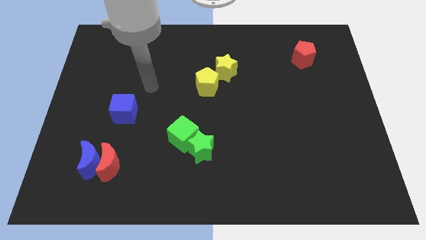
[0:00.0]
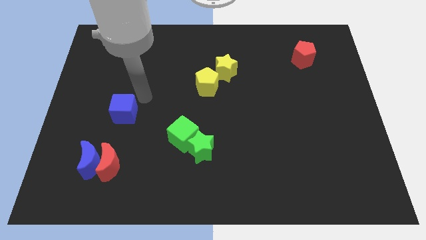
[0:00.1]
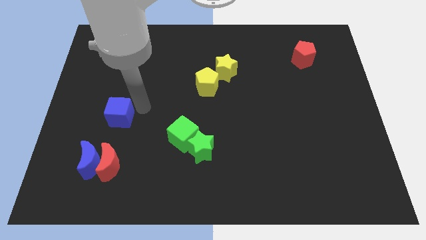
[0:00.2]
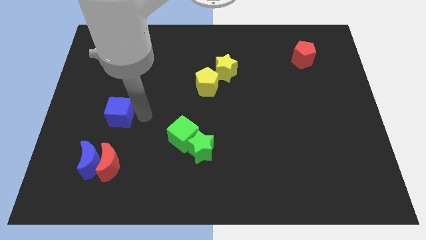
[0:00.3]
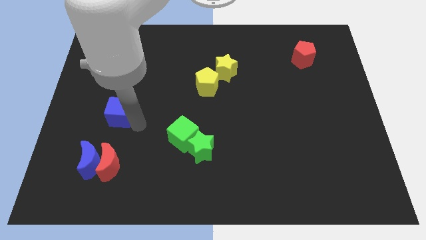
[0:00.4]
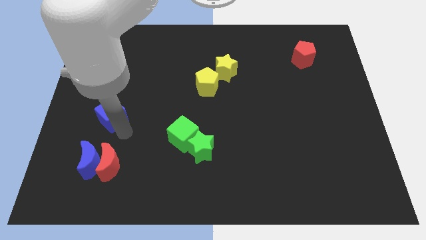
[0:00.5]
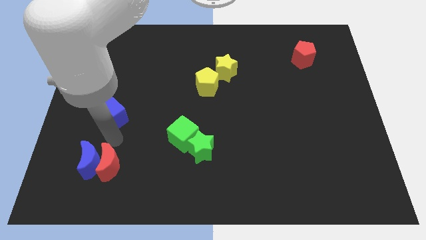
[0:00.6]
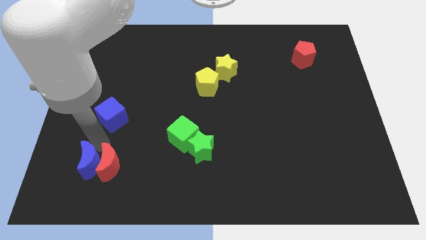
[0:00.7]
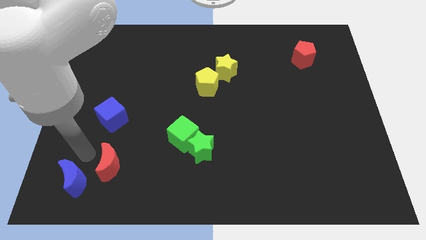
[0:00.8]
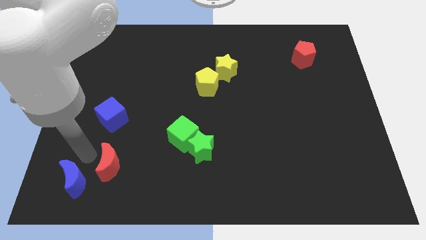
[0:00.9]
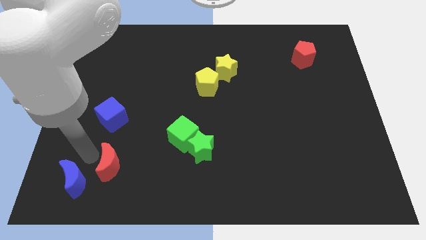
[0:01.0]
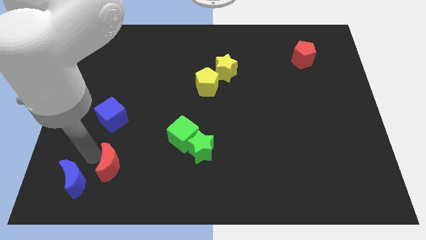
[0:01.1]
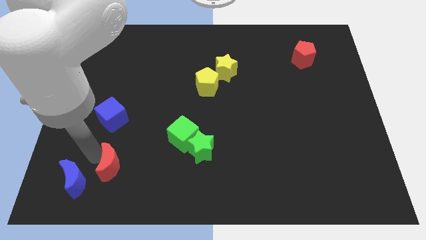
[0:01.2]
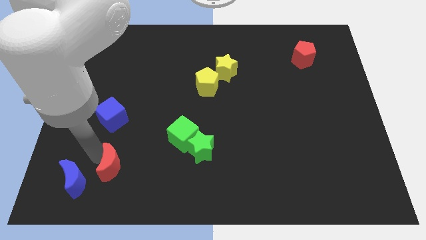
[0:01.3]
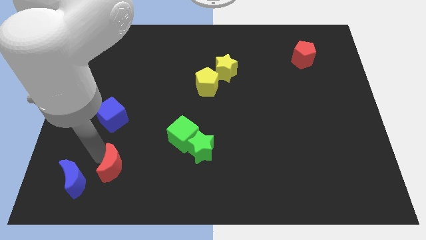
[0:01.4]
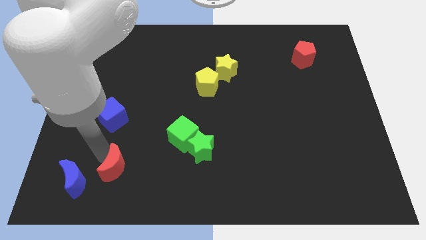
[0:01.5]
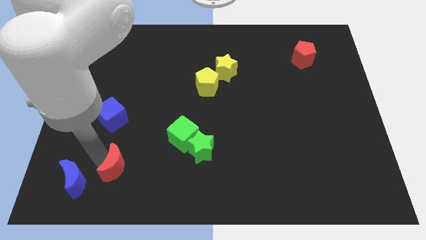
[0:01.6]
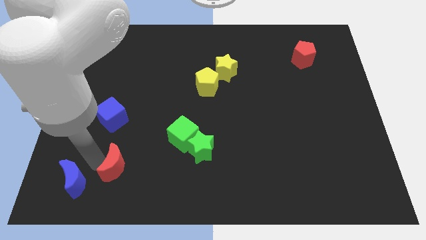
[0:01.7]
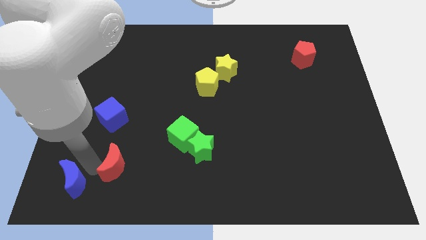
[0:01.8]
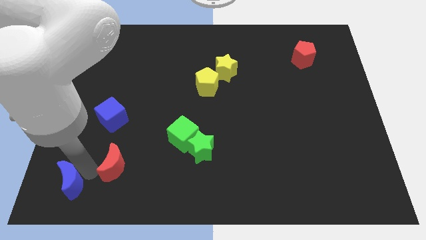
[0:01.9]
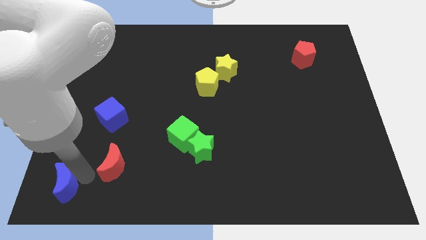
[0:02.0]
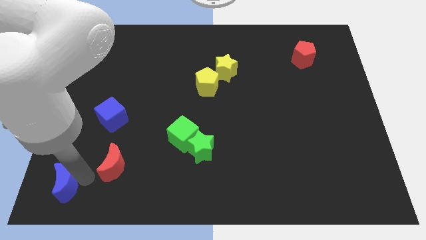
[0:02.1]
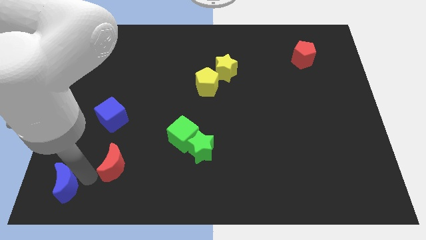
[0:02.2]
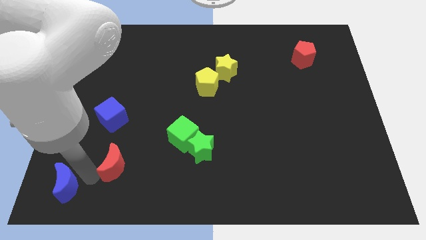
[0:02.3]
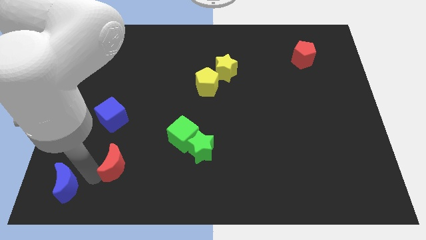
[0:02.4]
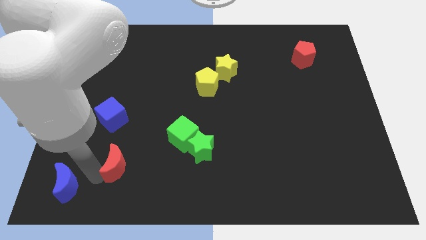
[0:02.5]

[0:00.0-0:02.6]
pull the red moon apart from the blue moon

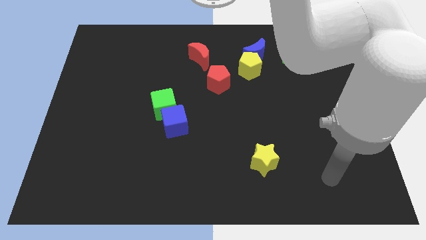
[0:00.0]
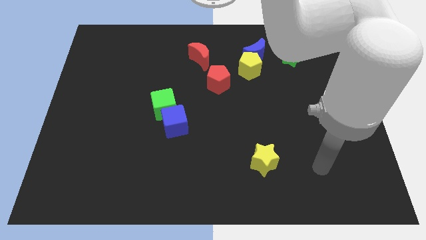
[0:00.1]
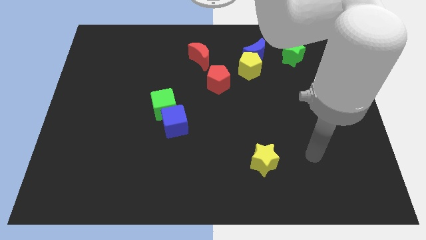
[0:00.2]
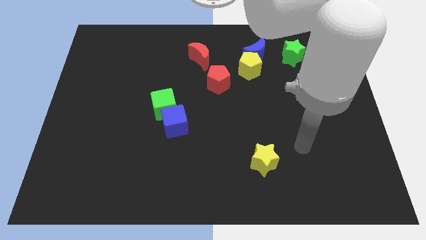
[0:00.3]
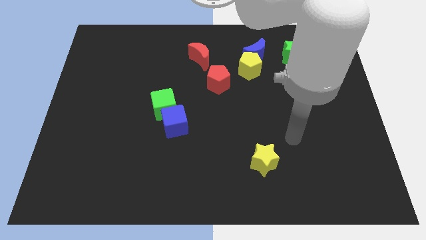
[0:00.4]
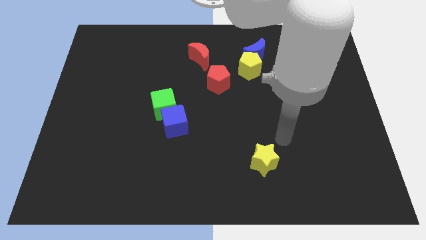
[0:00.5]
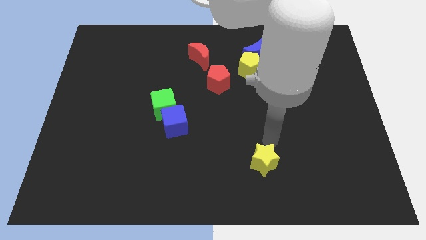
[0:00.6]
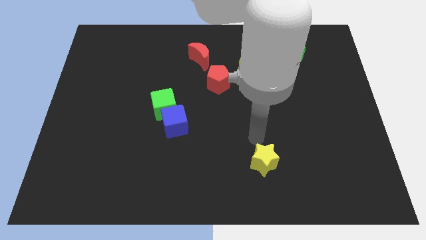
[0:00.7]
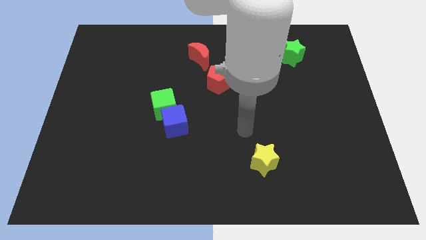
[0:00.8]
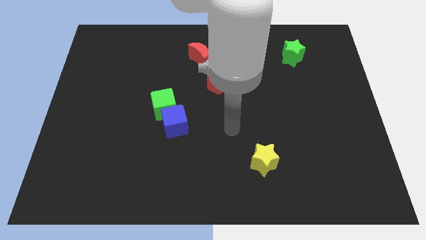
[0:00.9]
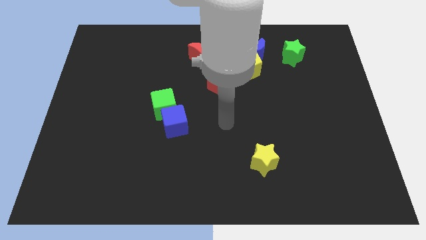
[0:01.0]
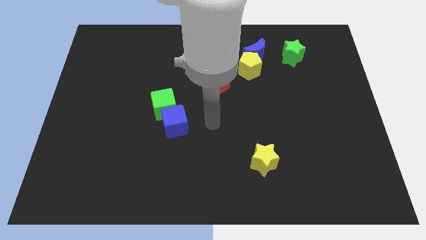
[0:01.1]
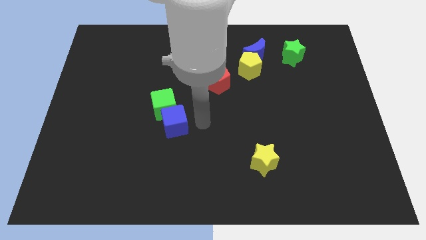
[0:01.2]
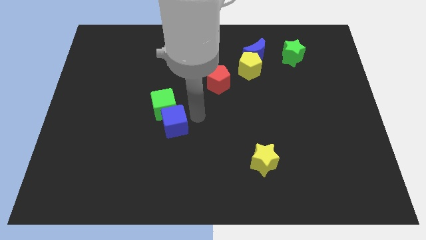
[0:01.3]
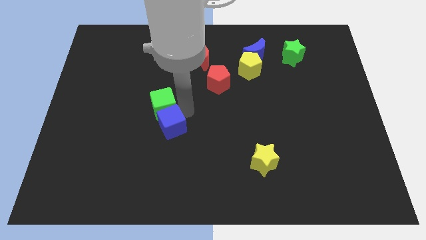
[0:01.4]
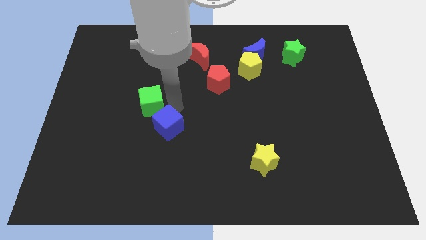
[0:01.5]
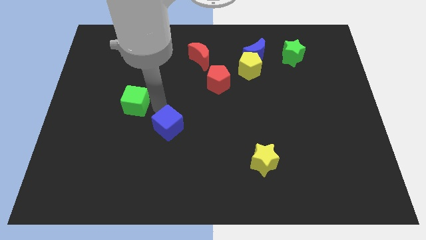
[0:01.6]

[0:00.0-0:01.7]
pull the blue cube apart from the green cube

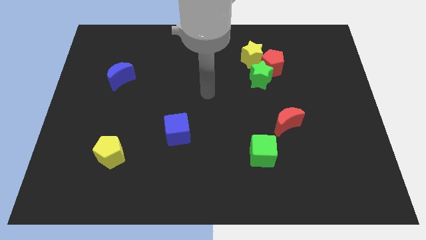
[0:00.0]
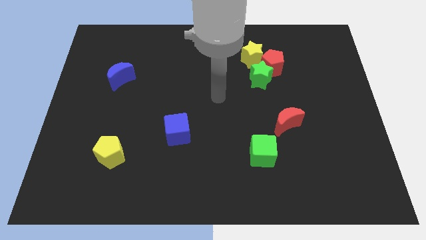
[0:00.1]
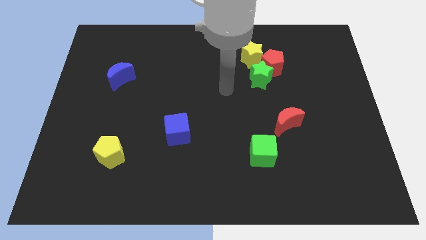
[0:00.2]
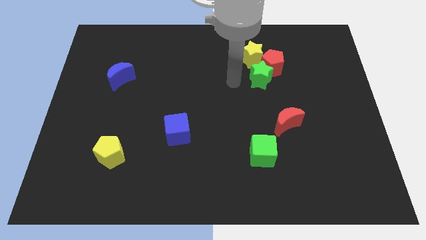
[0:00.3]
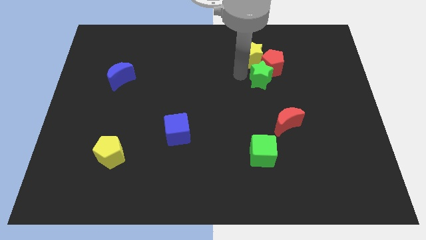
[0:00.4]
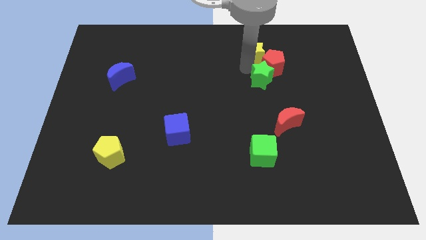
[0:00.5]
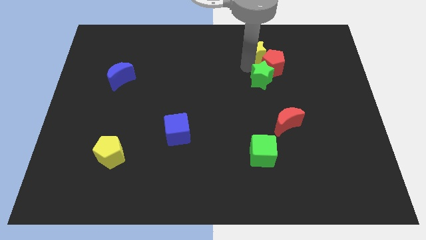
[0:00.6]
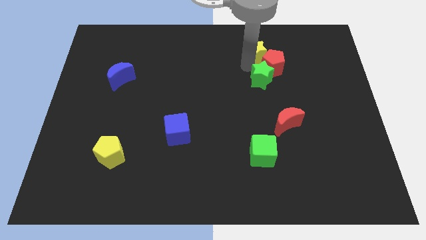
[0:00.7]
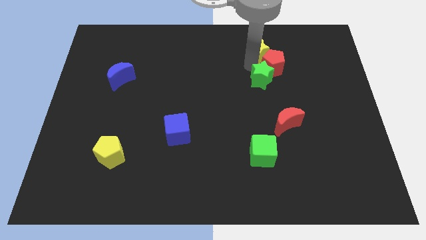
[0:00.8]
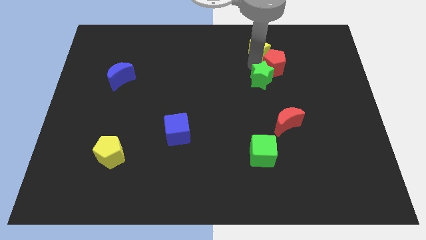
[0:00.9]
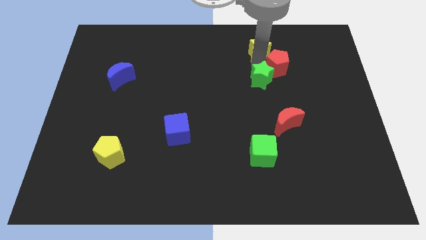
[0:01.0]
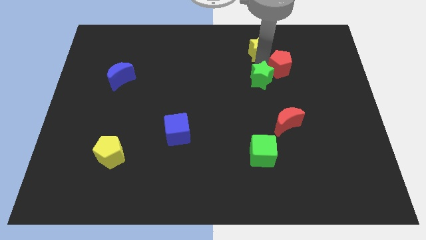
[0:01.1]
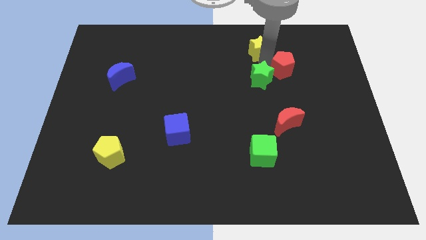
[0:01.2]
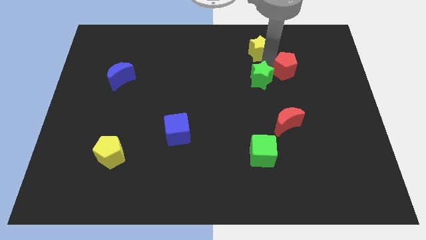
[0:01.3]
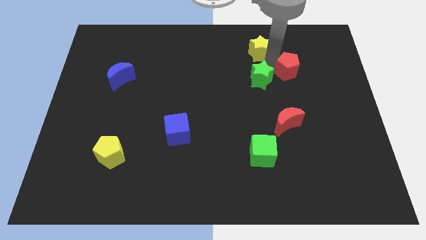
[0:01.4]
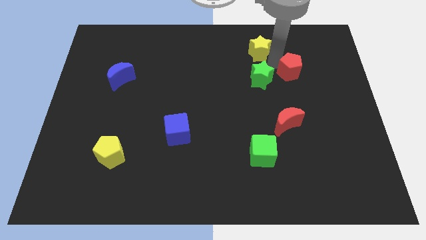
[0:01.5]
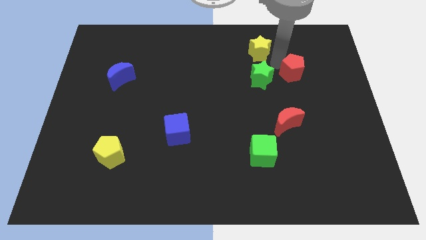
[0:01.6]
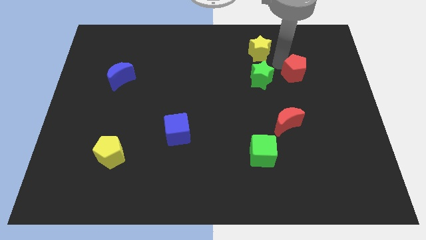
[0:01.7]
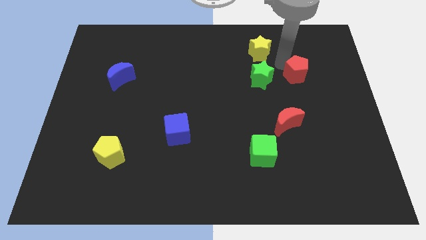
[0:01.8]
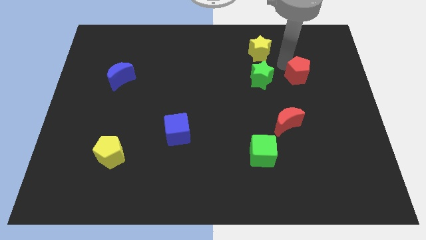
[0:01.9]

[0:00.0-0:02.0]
pull the red pentagon apart from the green star and yellow star

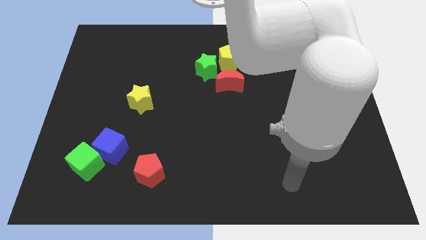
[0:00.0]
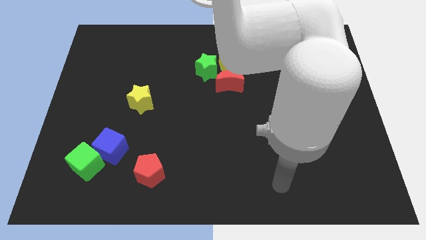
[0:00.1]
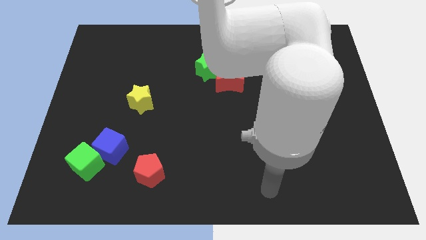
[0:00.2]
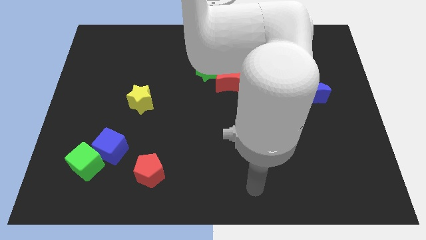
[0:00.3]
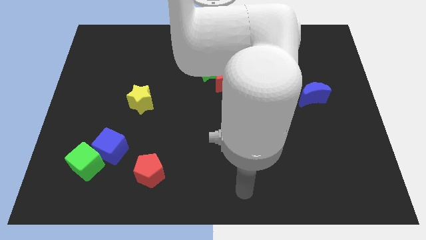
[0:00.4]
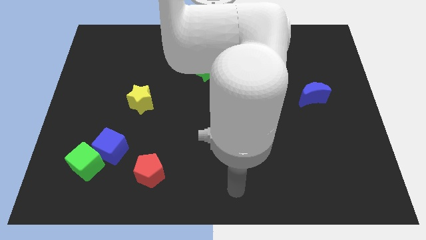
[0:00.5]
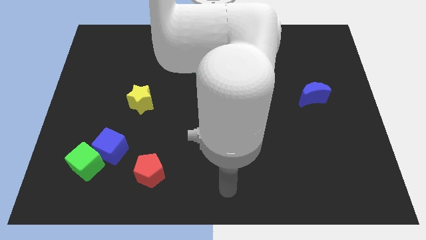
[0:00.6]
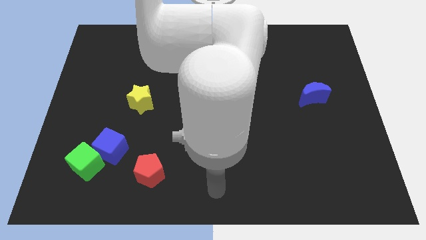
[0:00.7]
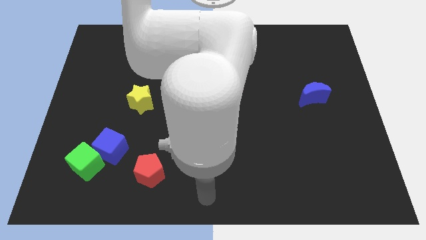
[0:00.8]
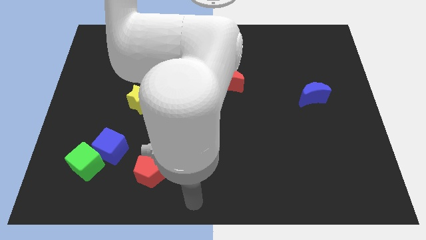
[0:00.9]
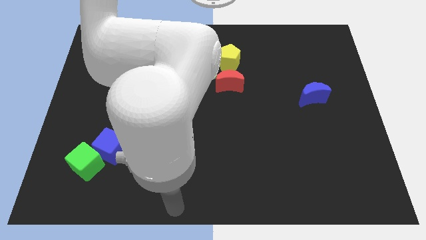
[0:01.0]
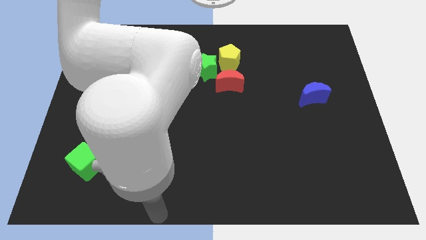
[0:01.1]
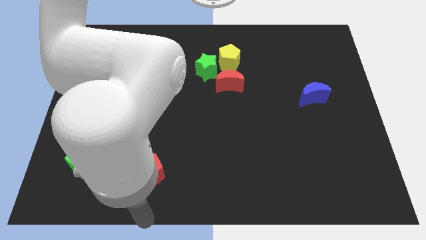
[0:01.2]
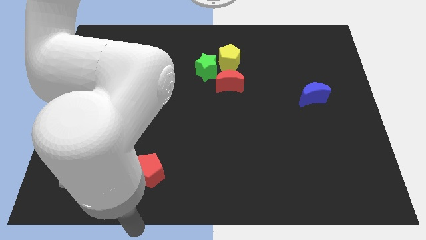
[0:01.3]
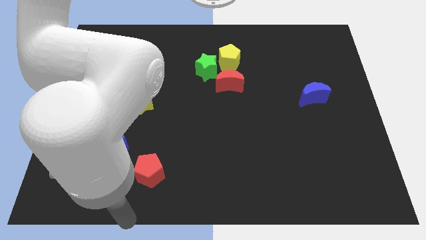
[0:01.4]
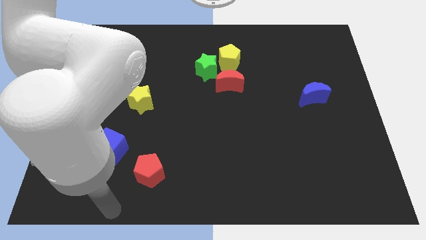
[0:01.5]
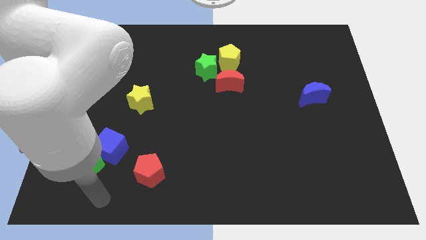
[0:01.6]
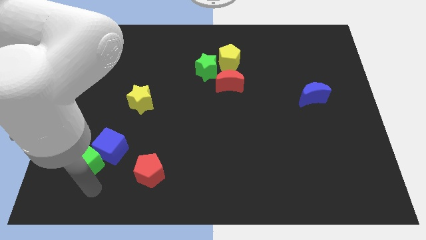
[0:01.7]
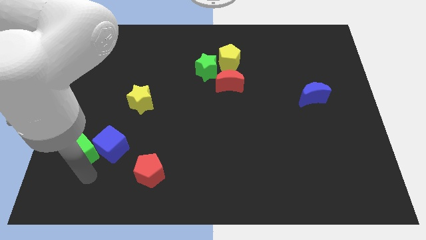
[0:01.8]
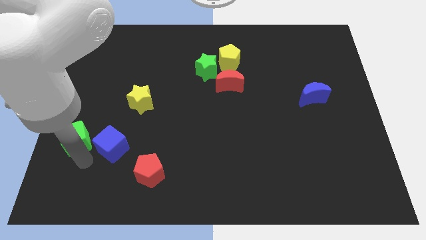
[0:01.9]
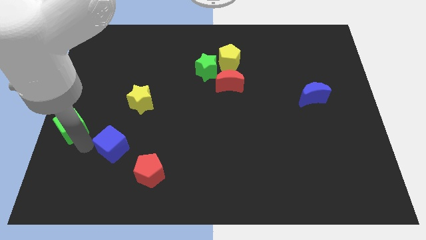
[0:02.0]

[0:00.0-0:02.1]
separate the blue cube from the green cube

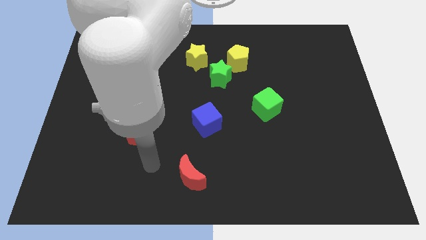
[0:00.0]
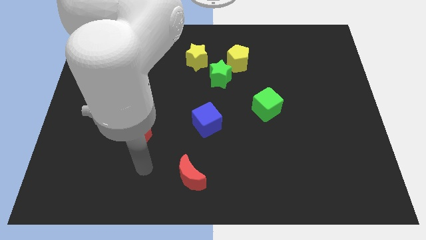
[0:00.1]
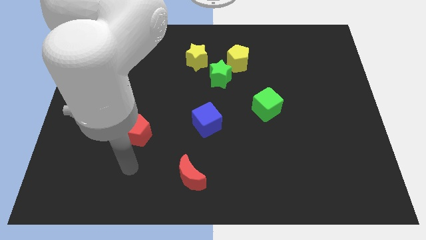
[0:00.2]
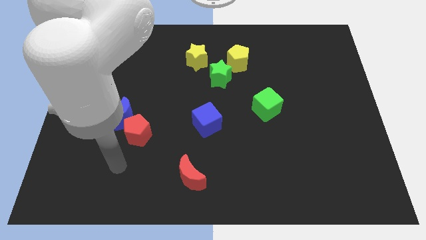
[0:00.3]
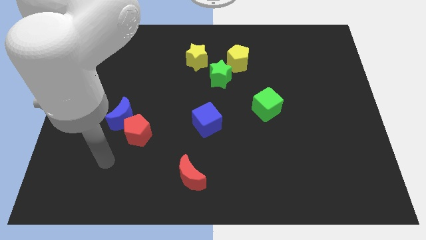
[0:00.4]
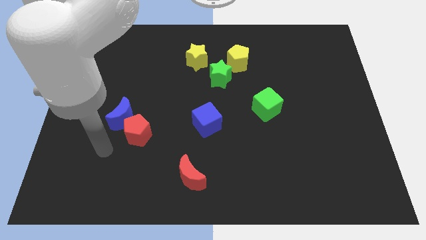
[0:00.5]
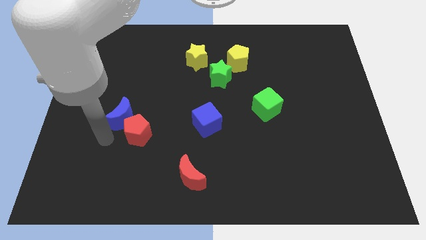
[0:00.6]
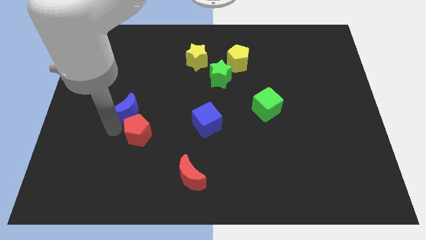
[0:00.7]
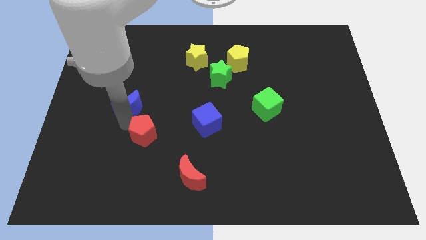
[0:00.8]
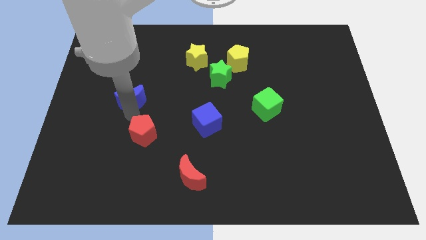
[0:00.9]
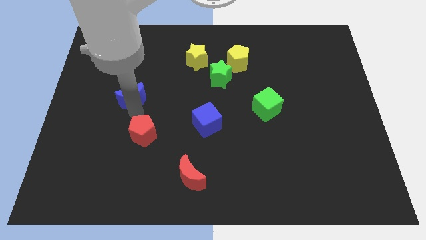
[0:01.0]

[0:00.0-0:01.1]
move the red pentagon away from the blue moon
